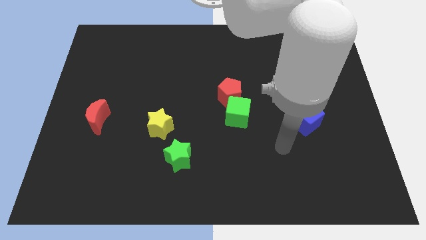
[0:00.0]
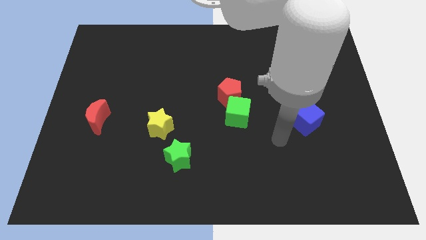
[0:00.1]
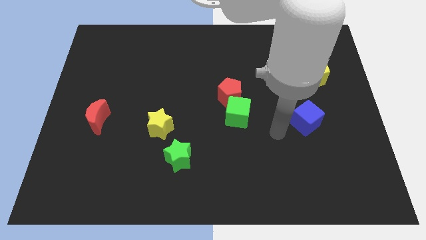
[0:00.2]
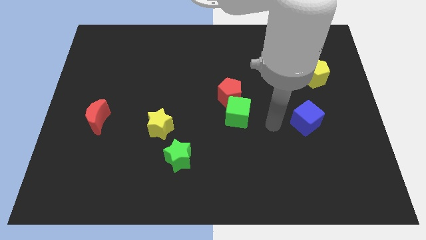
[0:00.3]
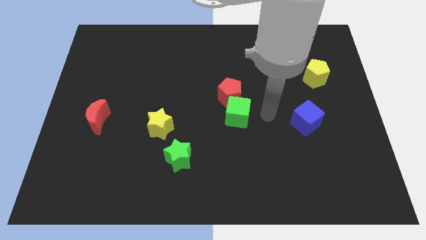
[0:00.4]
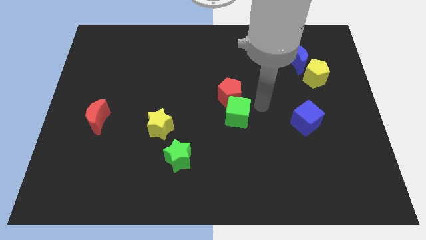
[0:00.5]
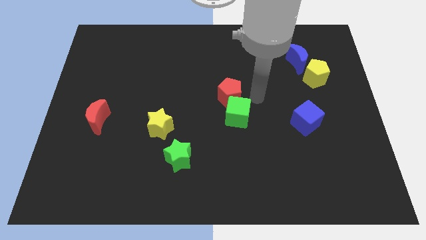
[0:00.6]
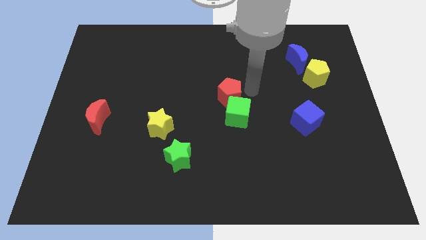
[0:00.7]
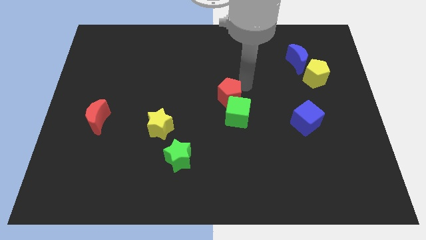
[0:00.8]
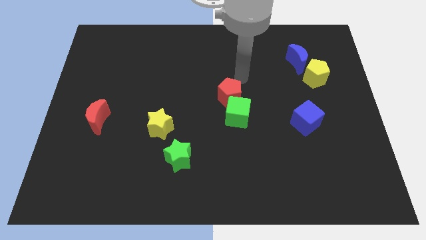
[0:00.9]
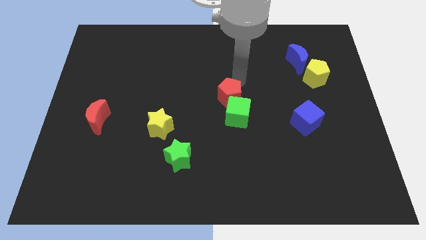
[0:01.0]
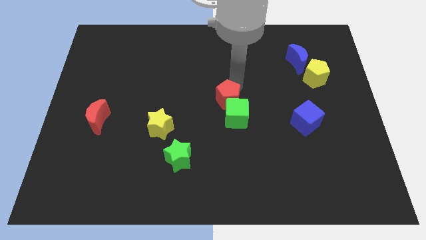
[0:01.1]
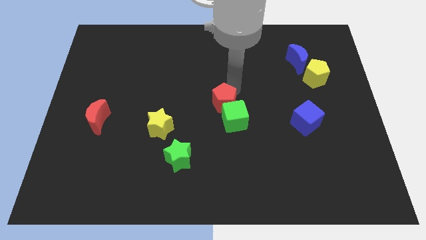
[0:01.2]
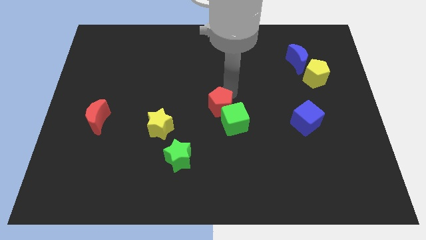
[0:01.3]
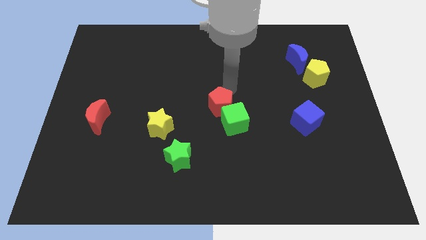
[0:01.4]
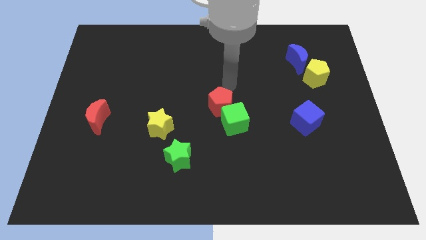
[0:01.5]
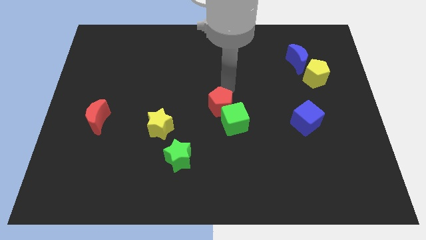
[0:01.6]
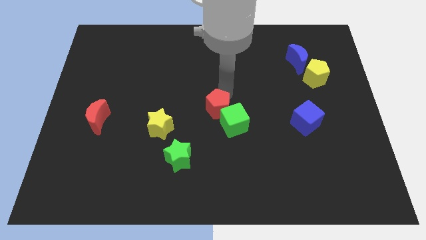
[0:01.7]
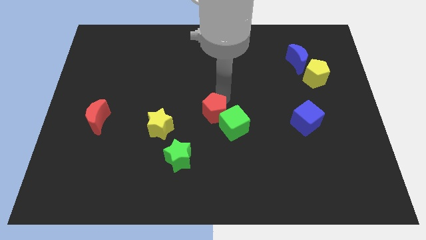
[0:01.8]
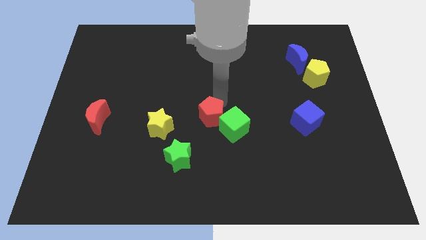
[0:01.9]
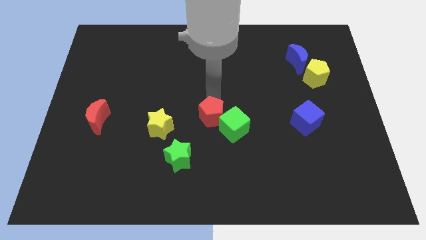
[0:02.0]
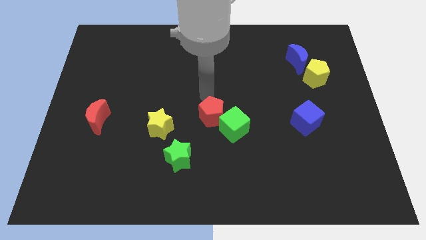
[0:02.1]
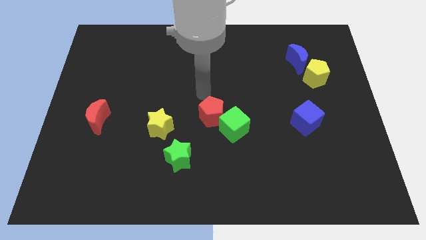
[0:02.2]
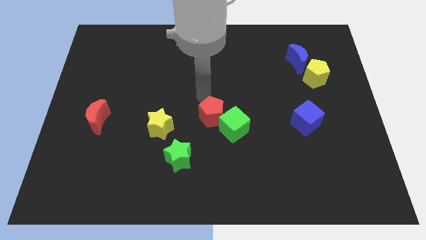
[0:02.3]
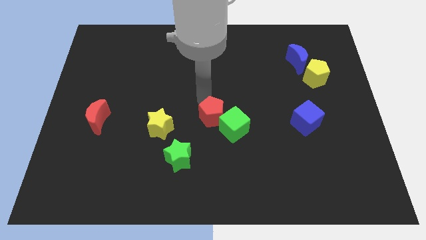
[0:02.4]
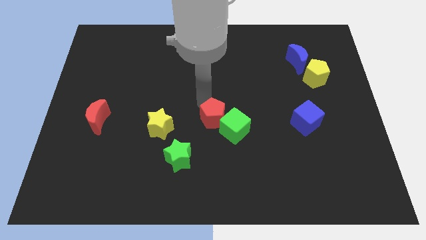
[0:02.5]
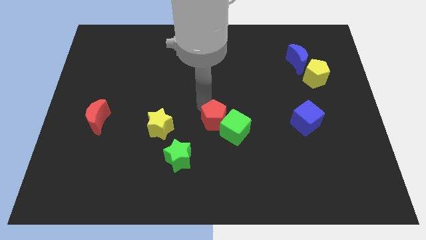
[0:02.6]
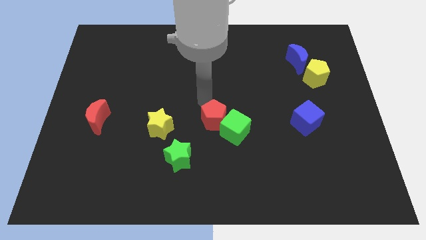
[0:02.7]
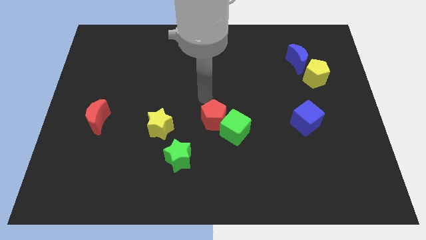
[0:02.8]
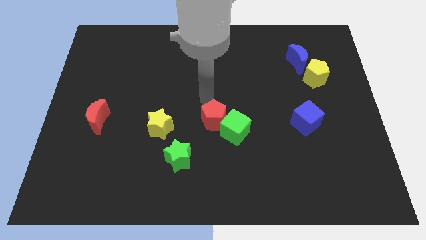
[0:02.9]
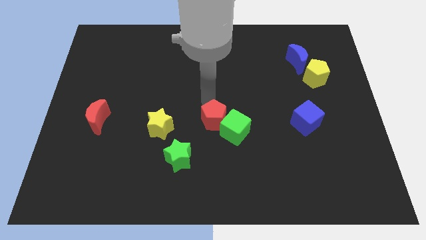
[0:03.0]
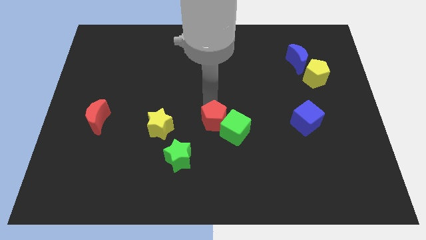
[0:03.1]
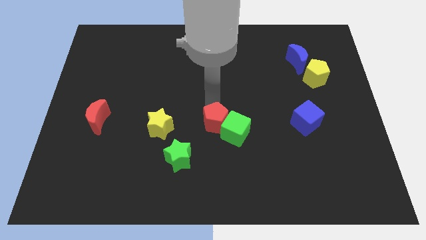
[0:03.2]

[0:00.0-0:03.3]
push the red pentagon a little bit downwards

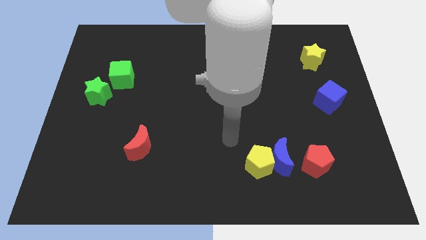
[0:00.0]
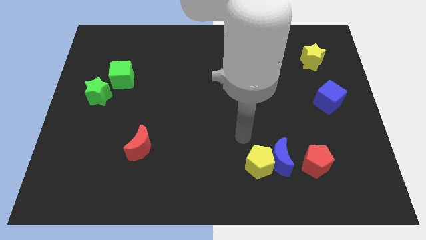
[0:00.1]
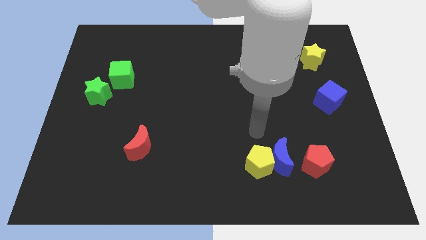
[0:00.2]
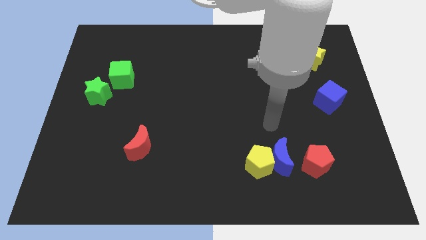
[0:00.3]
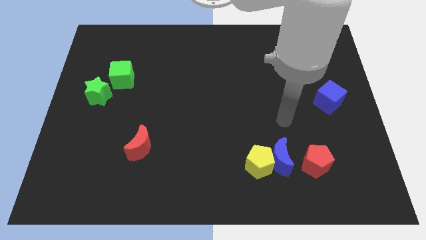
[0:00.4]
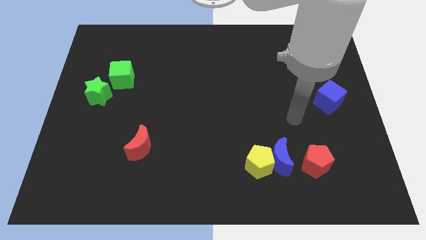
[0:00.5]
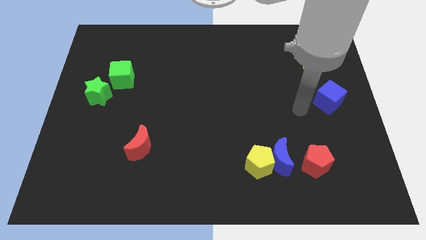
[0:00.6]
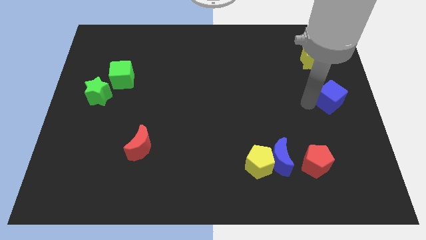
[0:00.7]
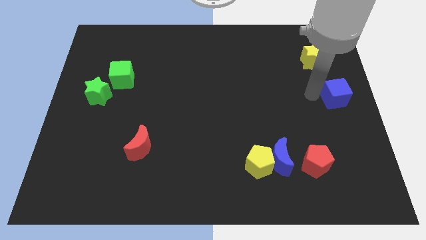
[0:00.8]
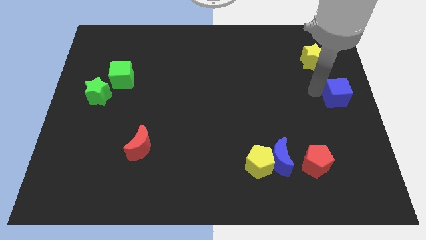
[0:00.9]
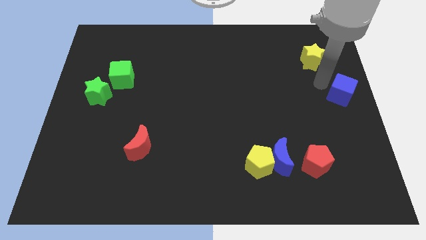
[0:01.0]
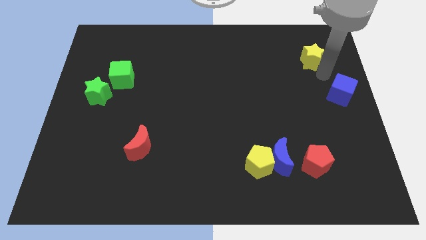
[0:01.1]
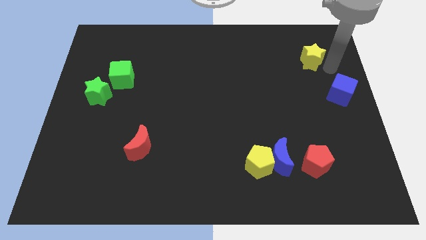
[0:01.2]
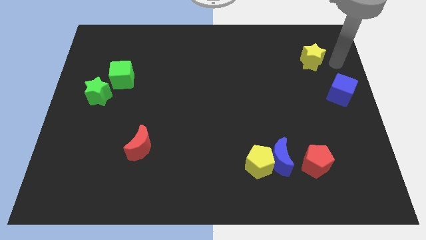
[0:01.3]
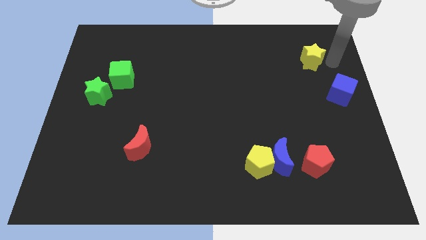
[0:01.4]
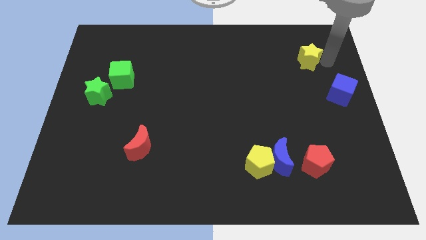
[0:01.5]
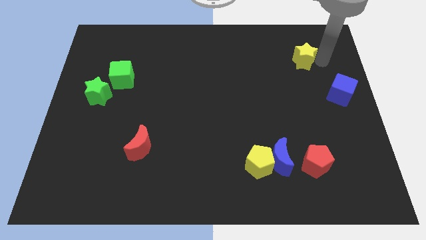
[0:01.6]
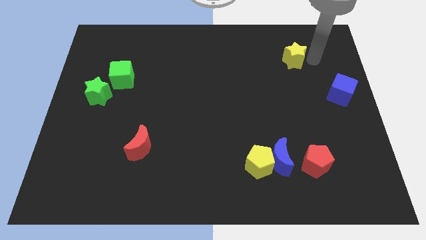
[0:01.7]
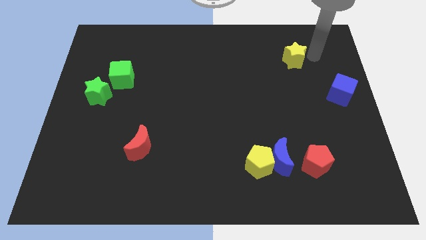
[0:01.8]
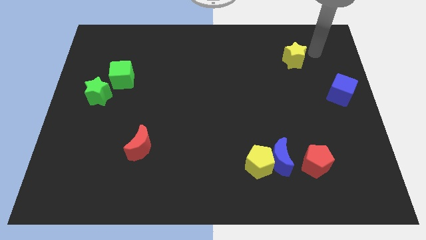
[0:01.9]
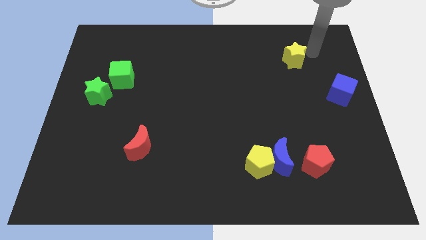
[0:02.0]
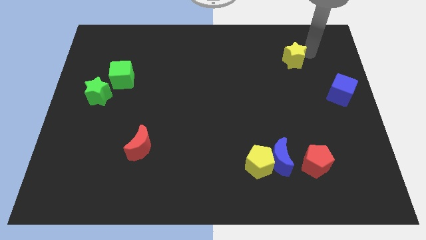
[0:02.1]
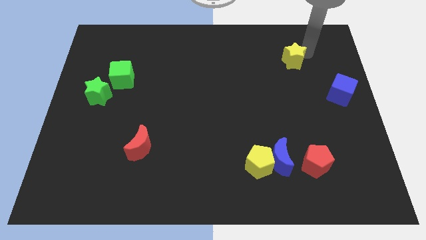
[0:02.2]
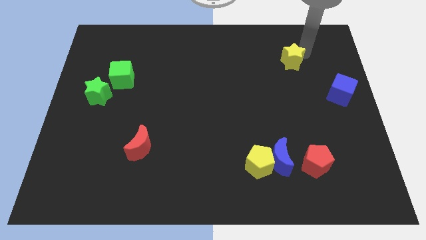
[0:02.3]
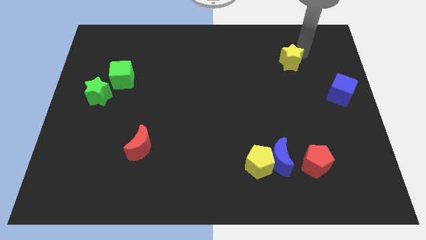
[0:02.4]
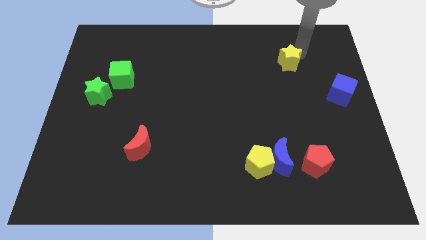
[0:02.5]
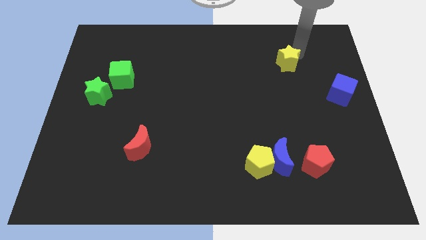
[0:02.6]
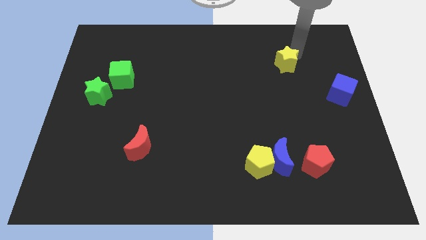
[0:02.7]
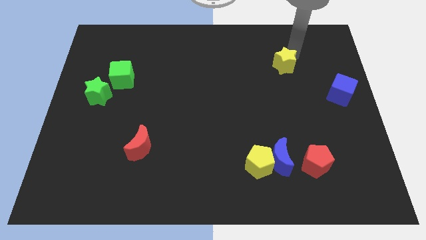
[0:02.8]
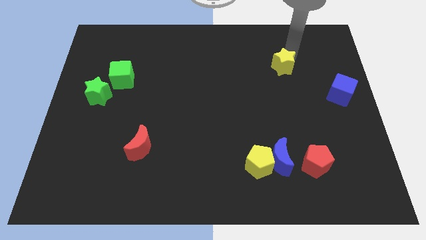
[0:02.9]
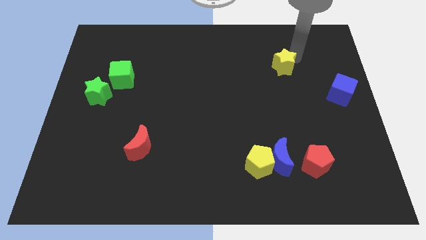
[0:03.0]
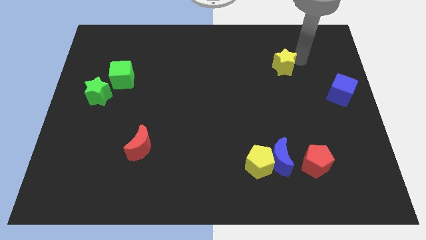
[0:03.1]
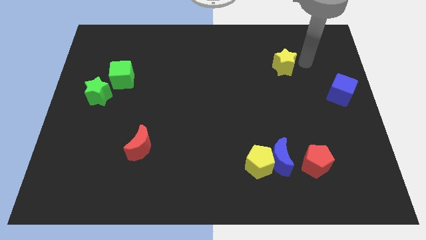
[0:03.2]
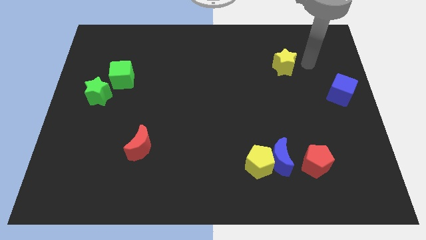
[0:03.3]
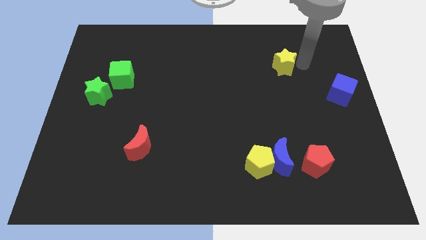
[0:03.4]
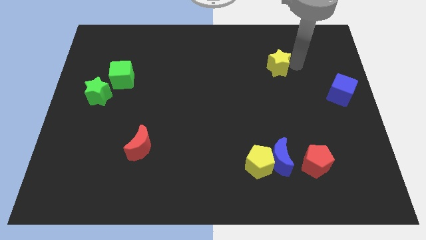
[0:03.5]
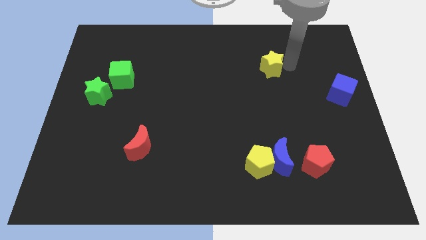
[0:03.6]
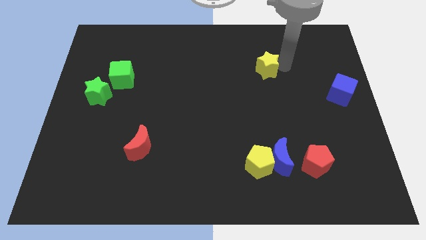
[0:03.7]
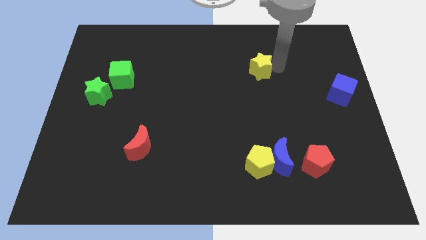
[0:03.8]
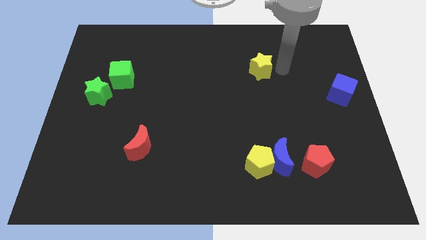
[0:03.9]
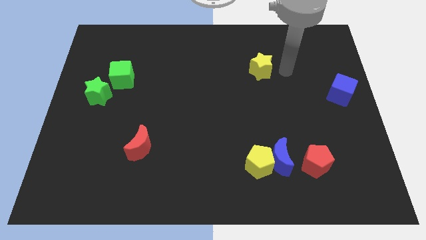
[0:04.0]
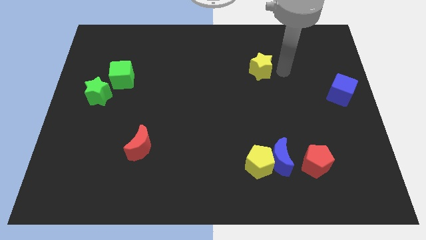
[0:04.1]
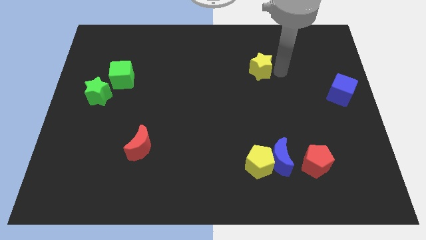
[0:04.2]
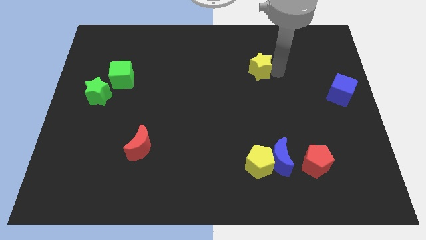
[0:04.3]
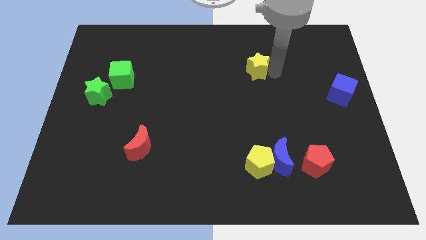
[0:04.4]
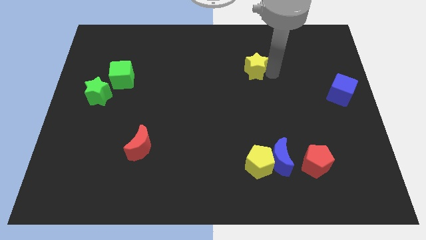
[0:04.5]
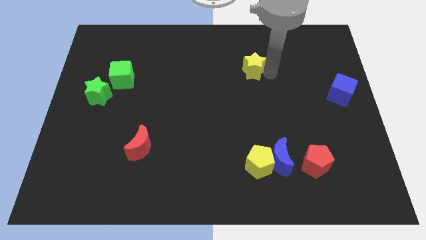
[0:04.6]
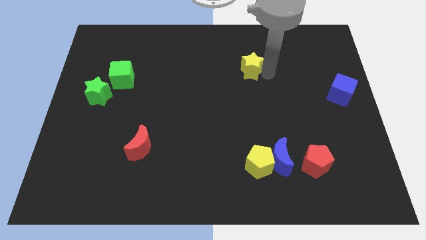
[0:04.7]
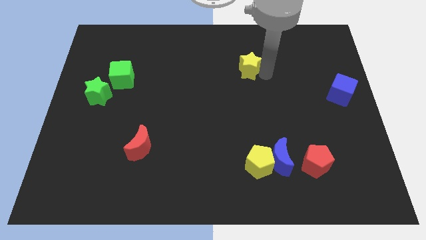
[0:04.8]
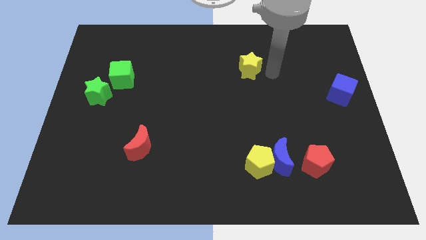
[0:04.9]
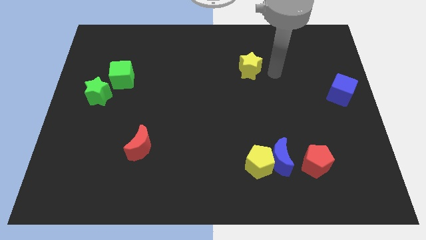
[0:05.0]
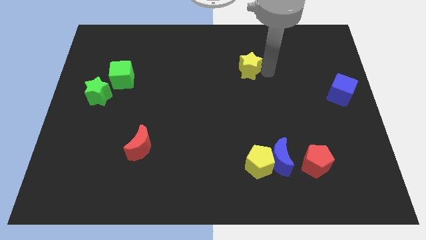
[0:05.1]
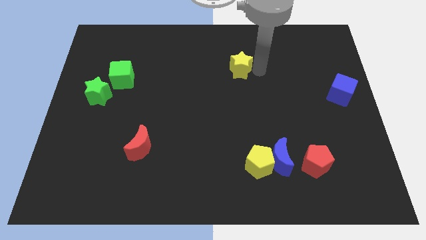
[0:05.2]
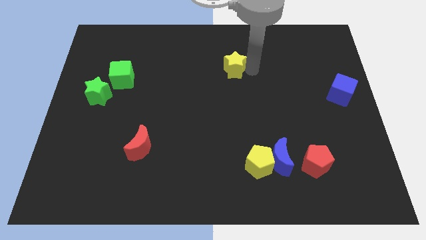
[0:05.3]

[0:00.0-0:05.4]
slide the yellow star left

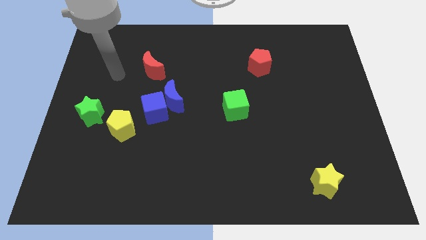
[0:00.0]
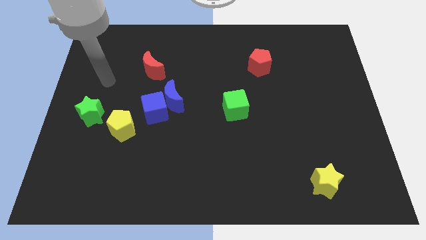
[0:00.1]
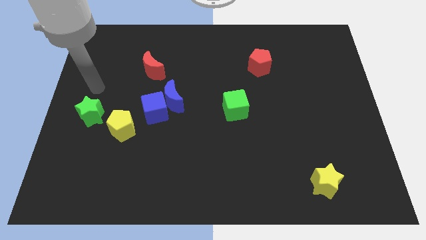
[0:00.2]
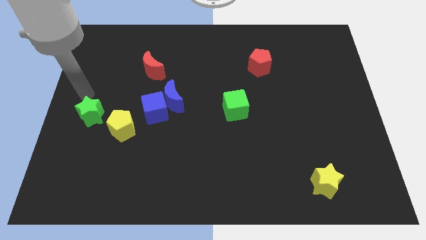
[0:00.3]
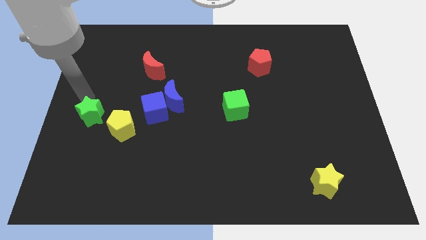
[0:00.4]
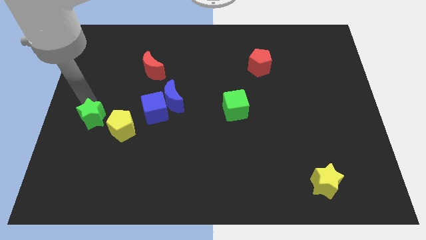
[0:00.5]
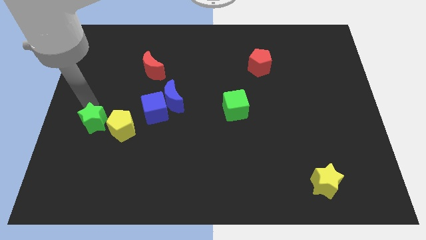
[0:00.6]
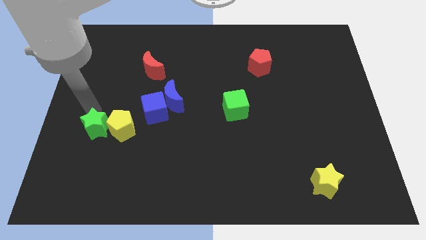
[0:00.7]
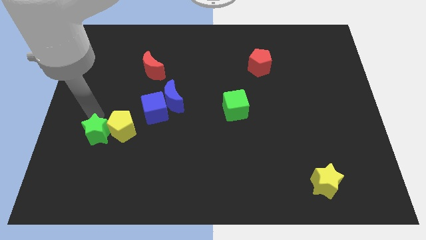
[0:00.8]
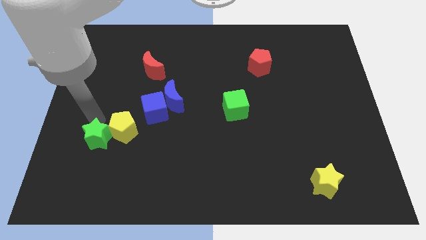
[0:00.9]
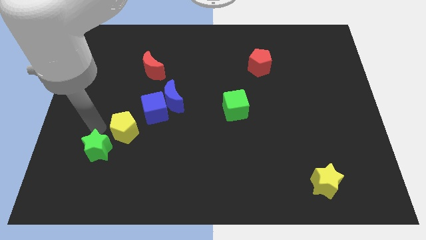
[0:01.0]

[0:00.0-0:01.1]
slide the green star a little diagonally downwards and to the right
